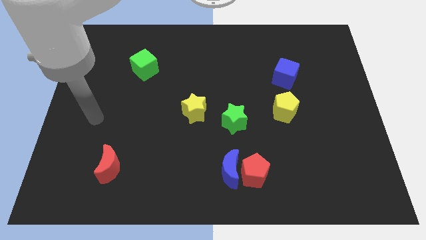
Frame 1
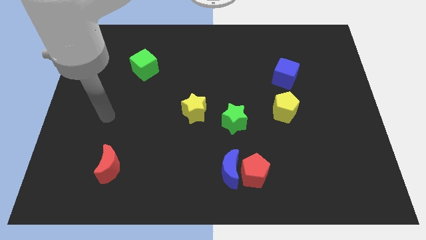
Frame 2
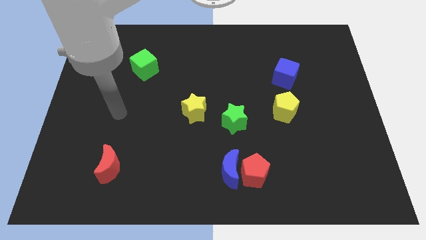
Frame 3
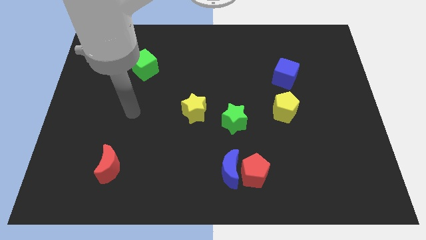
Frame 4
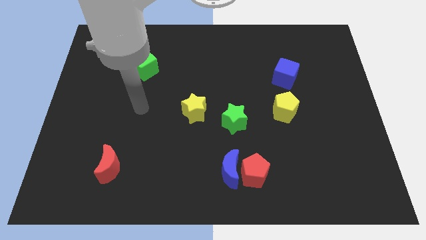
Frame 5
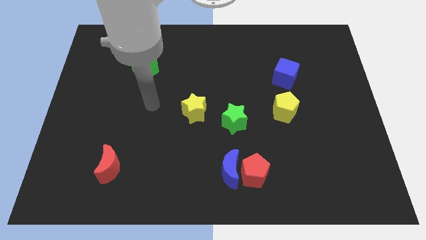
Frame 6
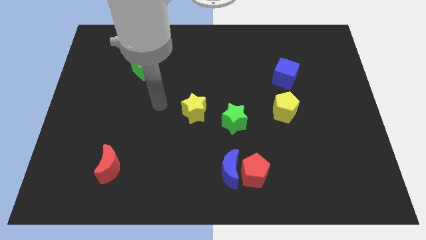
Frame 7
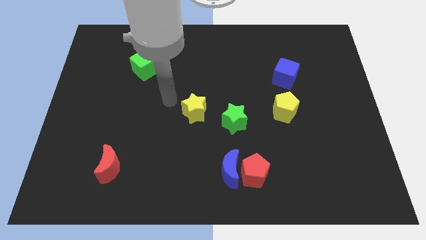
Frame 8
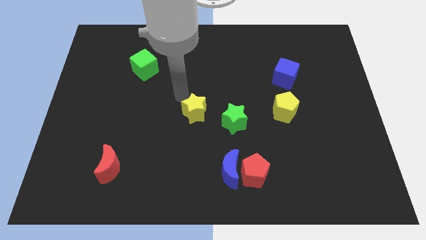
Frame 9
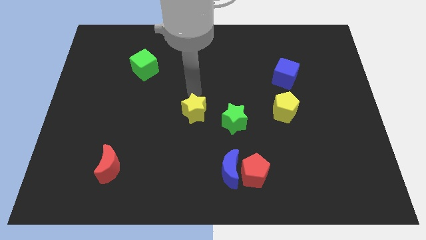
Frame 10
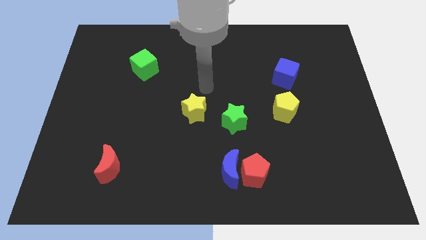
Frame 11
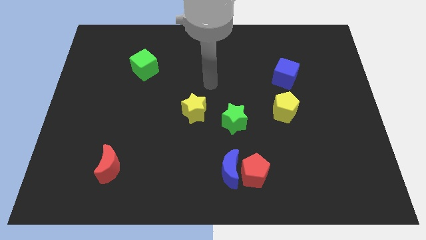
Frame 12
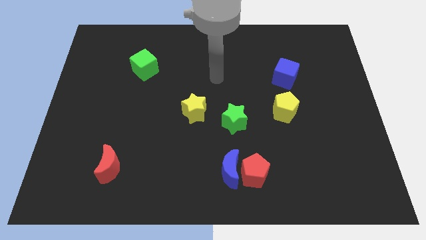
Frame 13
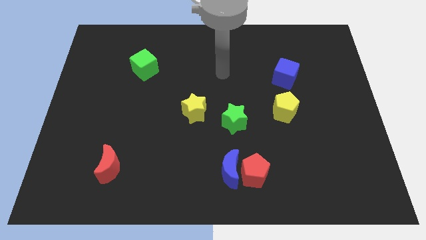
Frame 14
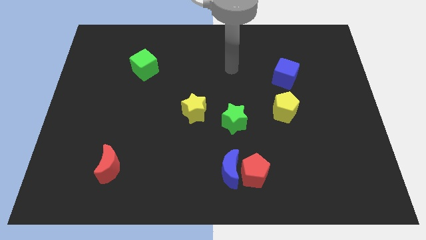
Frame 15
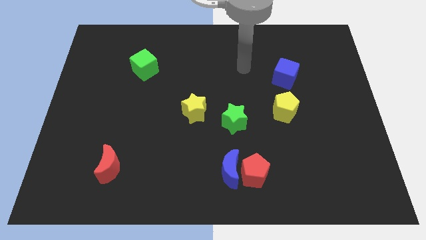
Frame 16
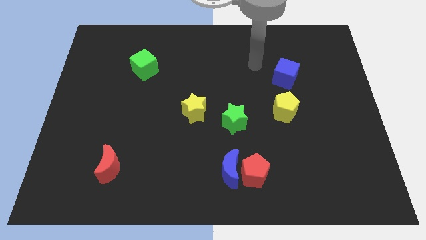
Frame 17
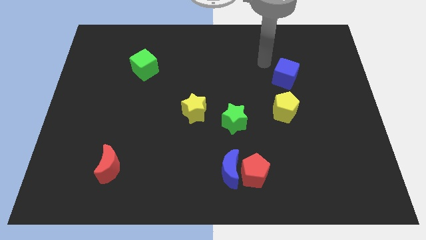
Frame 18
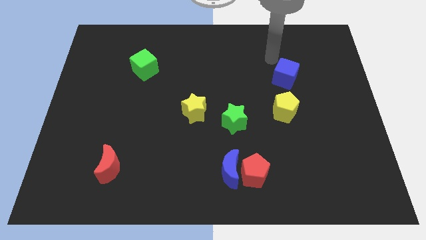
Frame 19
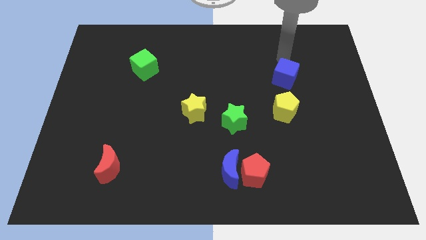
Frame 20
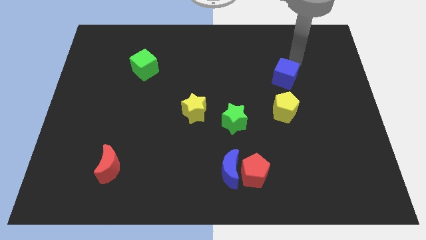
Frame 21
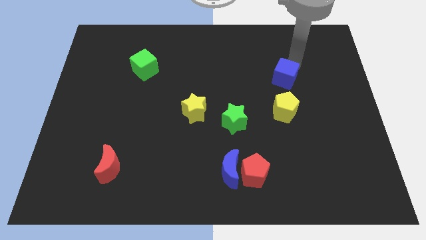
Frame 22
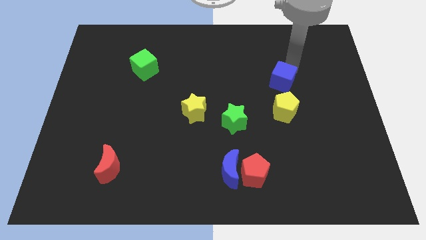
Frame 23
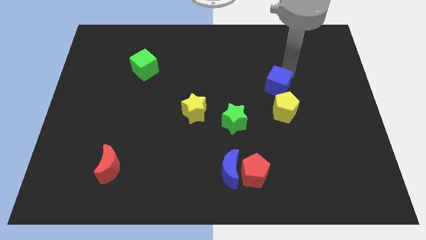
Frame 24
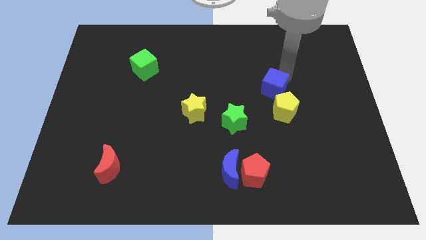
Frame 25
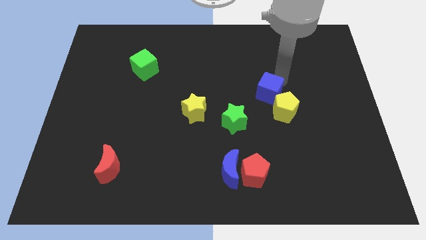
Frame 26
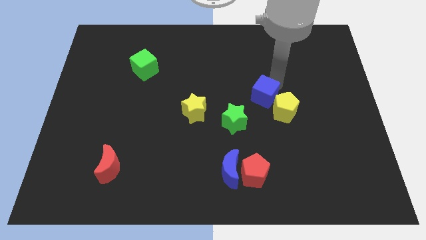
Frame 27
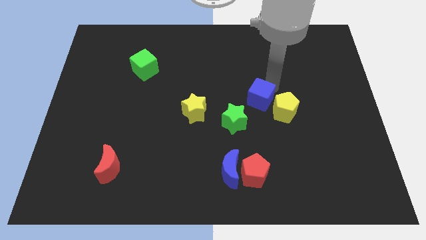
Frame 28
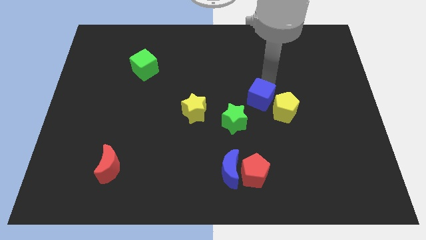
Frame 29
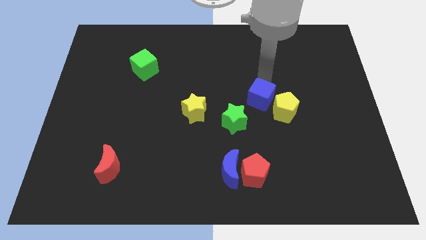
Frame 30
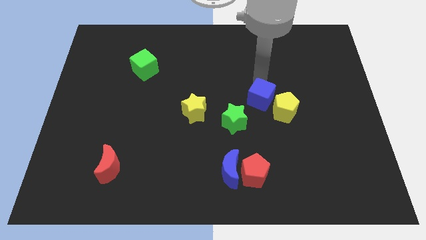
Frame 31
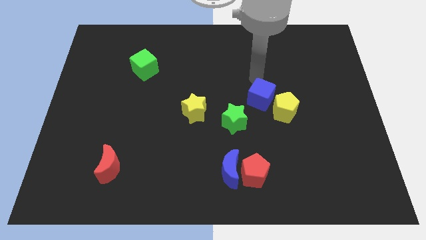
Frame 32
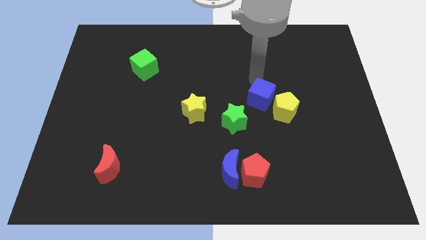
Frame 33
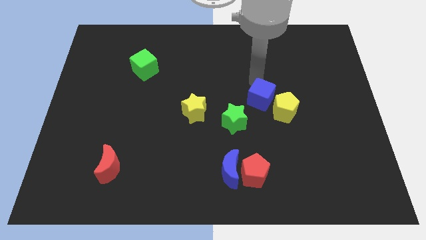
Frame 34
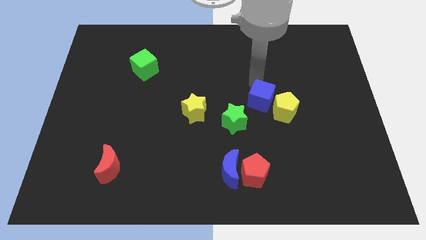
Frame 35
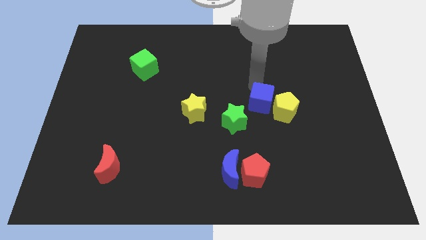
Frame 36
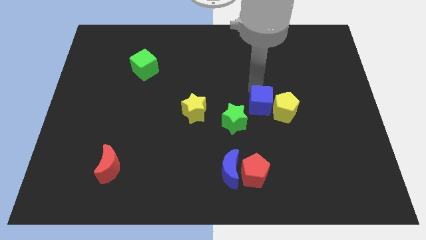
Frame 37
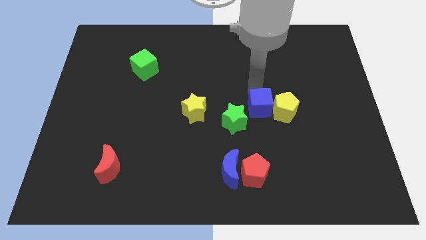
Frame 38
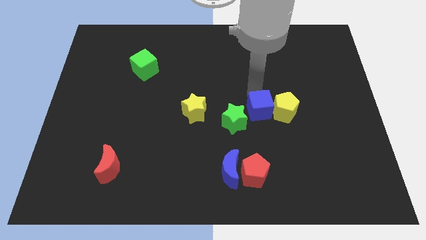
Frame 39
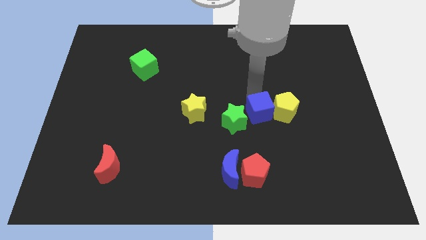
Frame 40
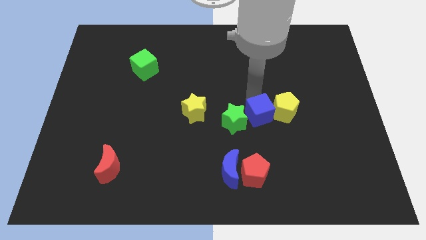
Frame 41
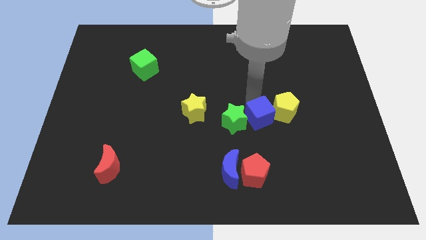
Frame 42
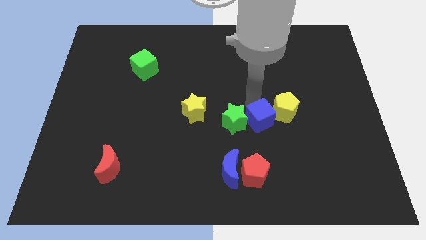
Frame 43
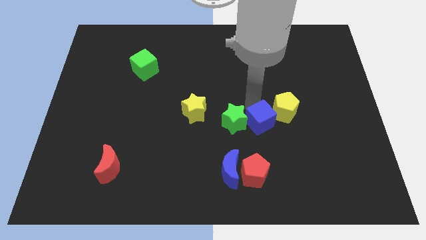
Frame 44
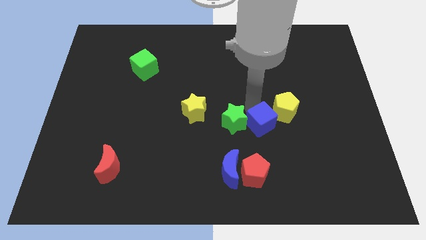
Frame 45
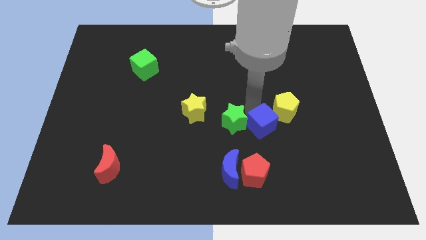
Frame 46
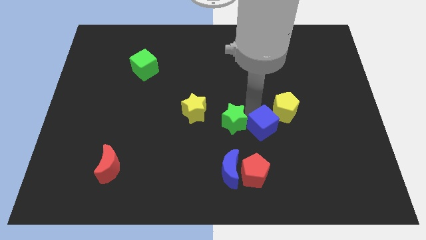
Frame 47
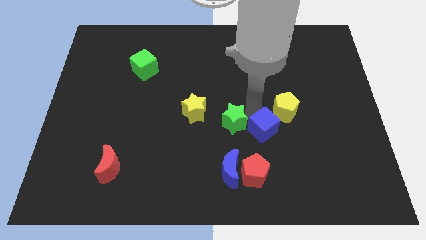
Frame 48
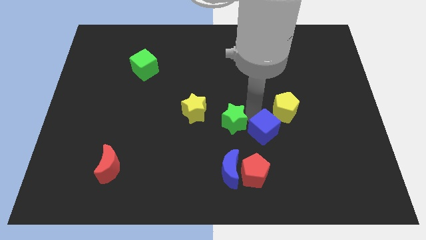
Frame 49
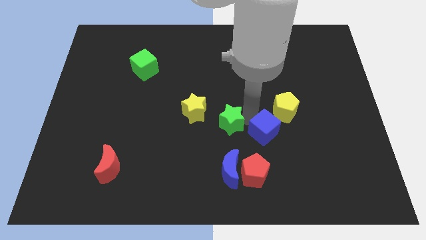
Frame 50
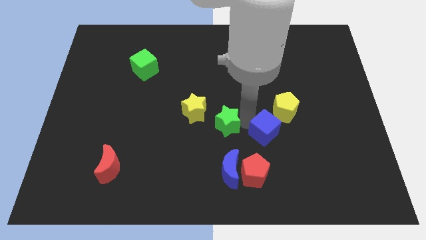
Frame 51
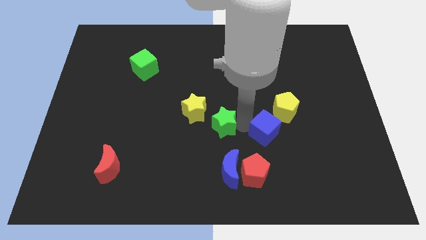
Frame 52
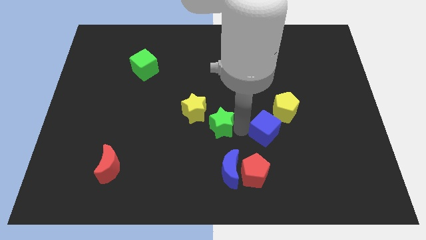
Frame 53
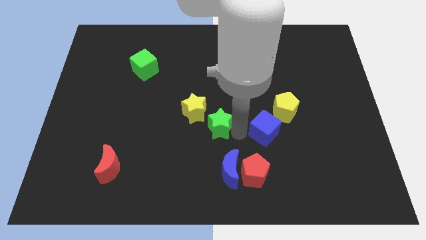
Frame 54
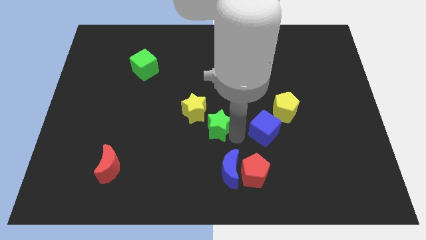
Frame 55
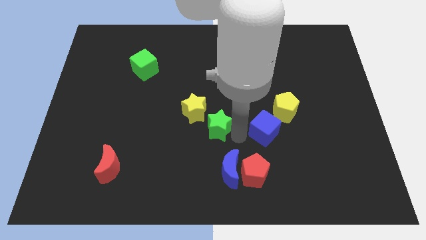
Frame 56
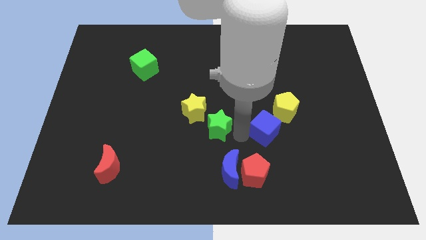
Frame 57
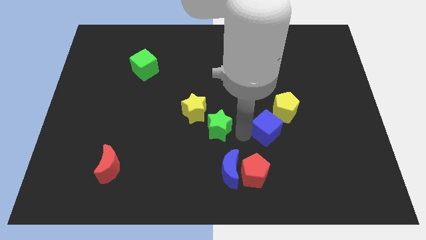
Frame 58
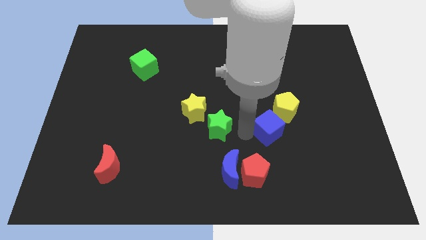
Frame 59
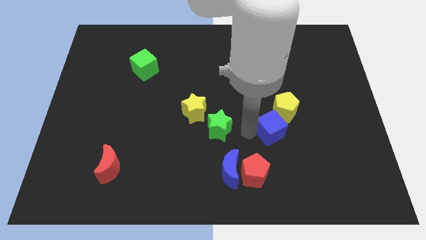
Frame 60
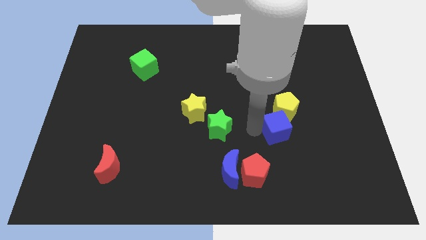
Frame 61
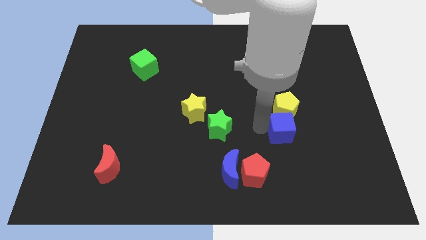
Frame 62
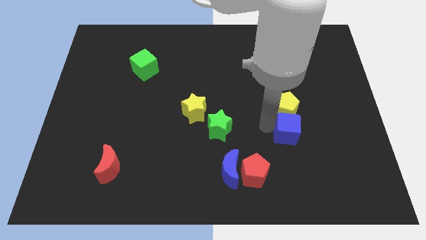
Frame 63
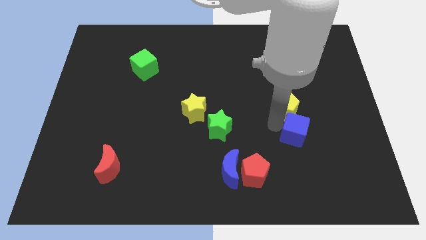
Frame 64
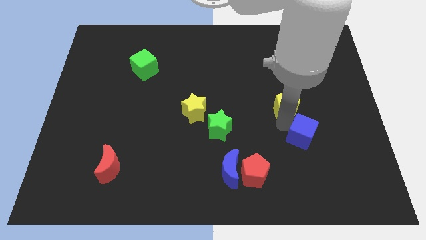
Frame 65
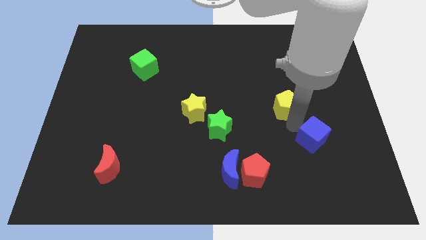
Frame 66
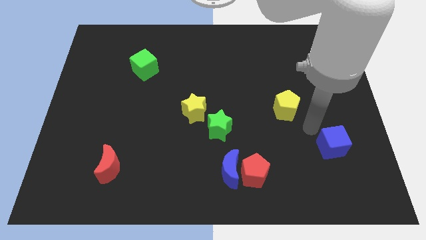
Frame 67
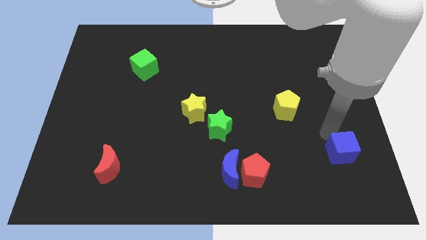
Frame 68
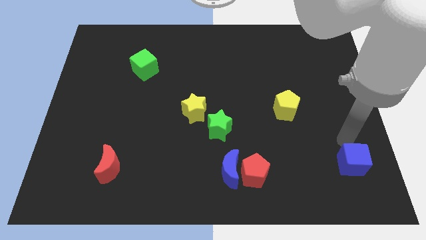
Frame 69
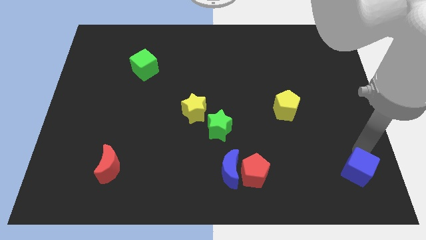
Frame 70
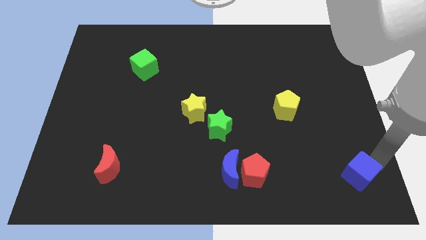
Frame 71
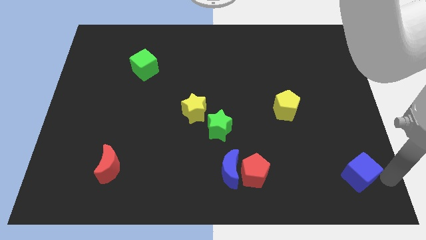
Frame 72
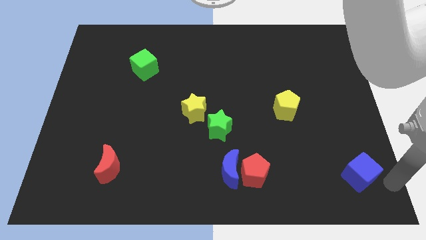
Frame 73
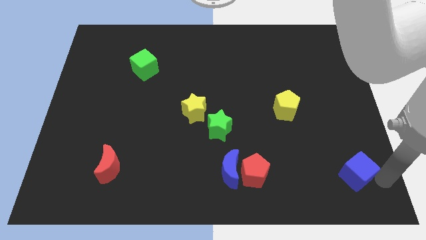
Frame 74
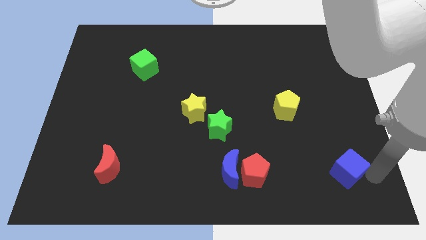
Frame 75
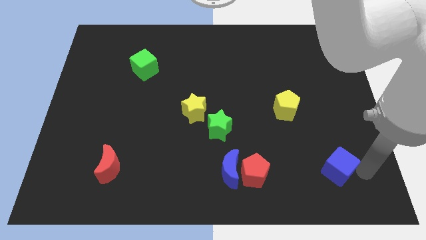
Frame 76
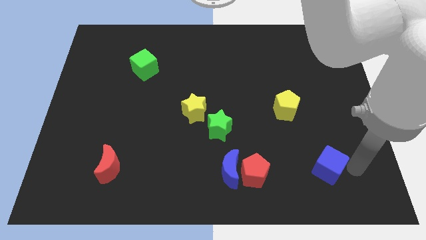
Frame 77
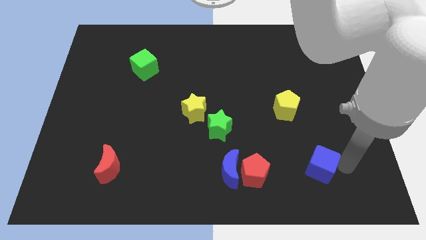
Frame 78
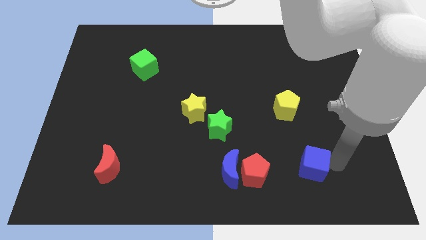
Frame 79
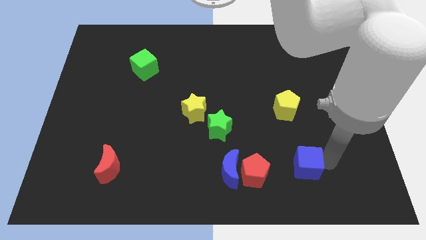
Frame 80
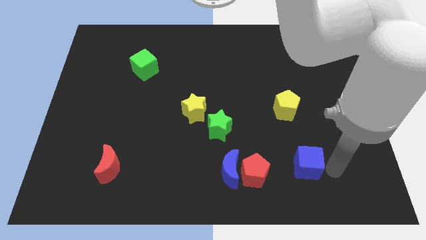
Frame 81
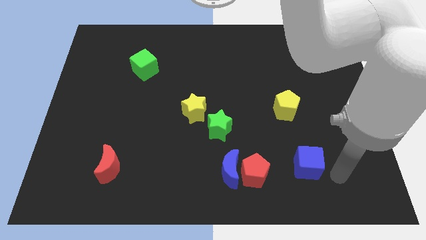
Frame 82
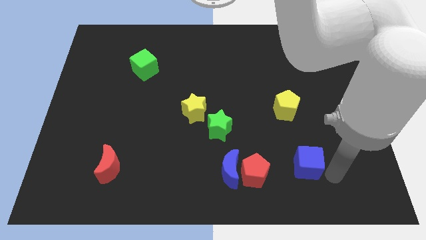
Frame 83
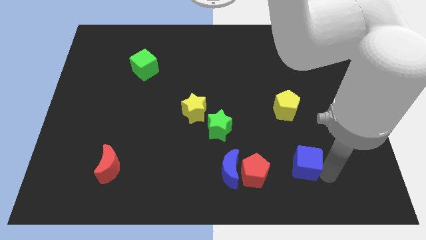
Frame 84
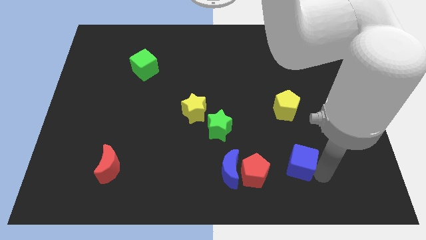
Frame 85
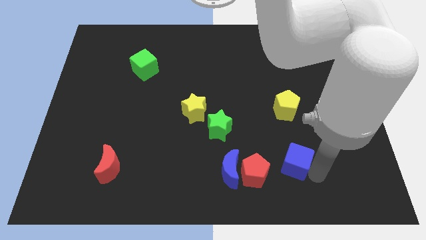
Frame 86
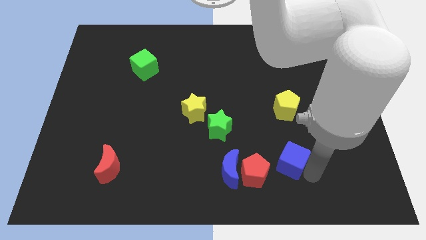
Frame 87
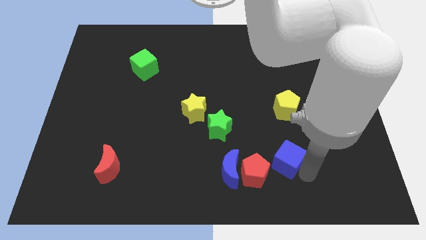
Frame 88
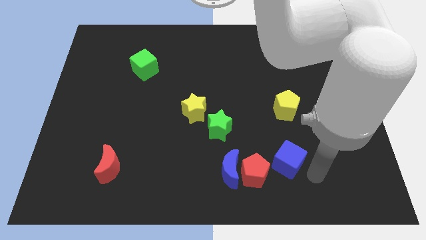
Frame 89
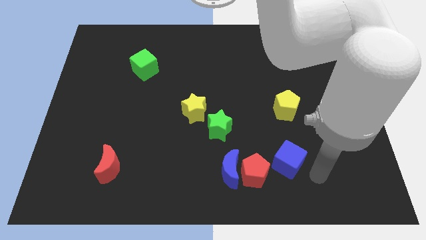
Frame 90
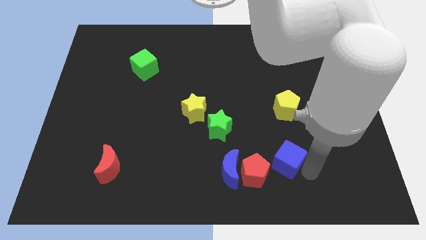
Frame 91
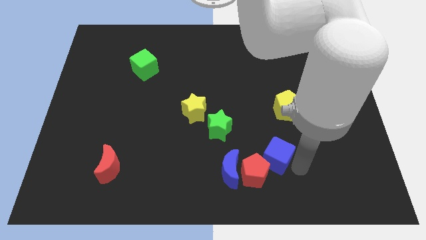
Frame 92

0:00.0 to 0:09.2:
slide the blue cube close to the red pentagon
